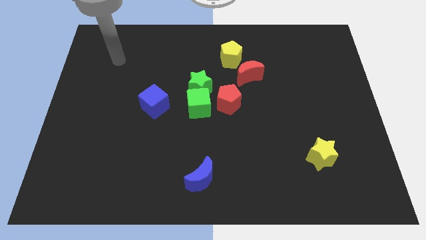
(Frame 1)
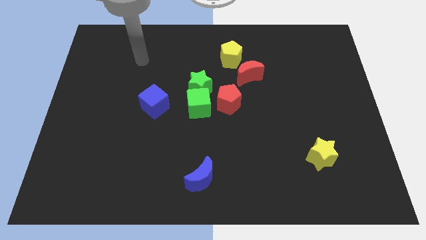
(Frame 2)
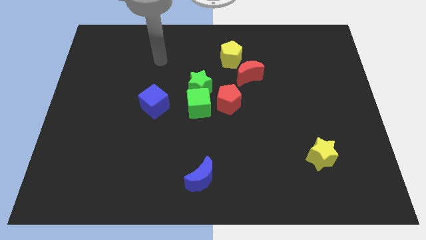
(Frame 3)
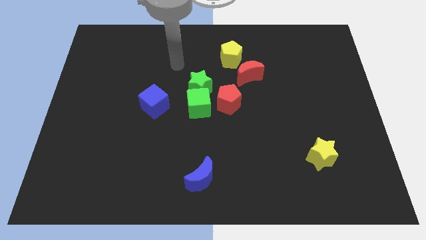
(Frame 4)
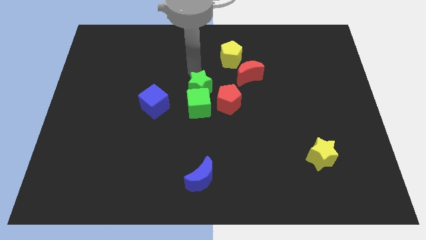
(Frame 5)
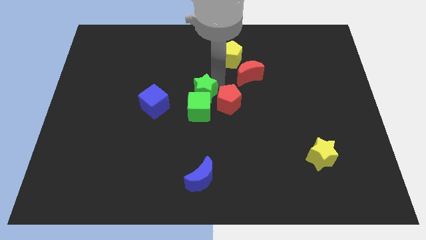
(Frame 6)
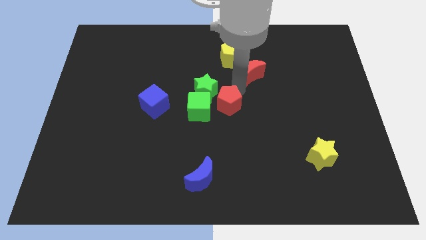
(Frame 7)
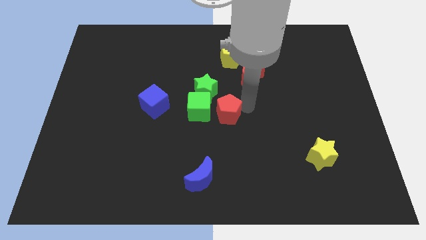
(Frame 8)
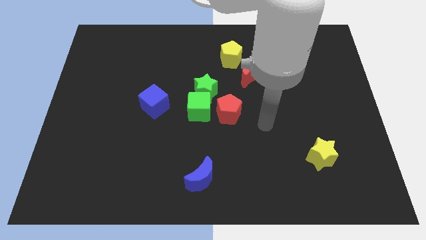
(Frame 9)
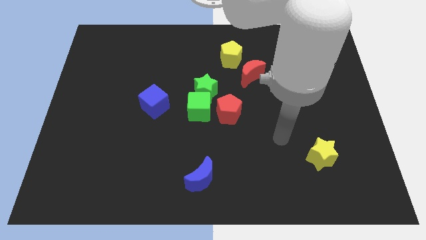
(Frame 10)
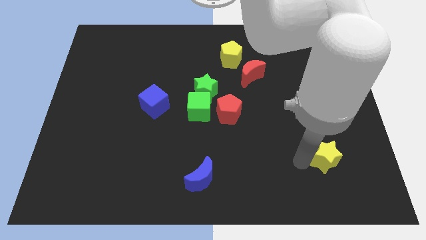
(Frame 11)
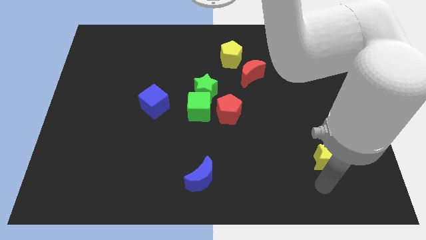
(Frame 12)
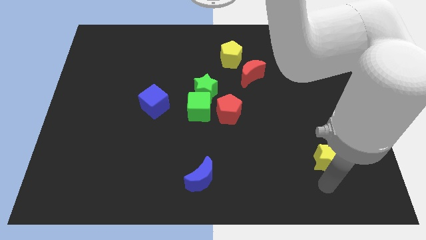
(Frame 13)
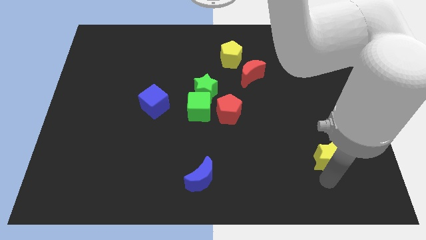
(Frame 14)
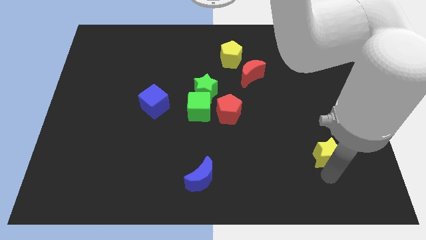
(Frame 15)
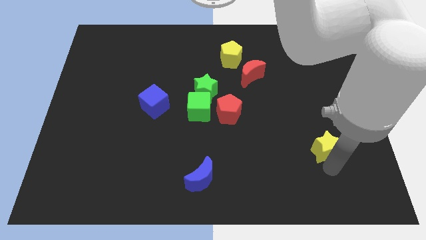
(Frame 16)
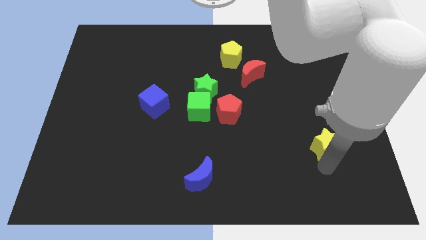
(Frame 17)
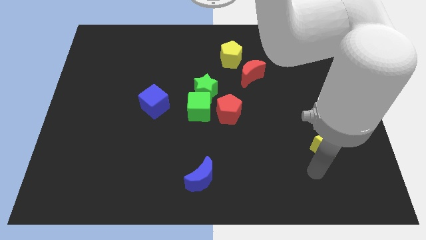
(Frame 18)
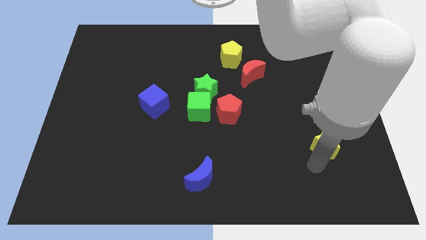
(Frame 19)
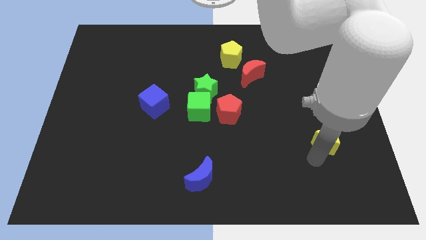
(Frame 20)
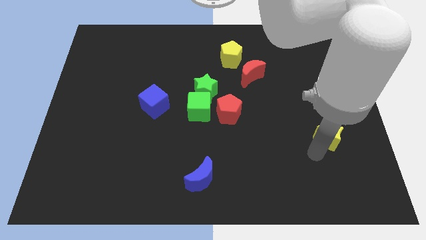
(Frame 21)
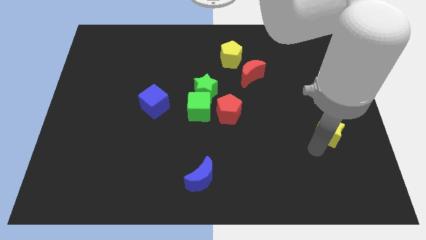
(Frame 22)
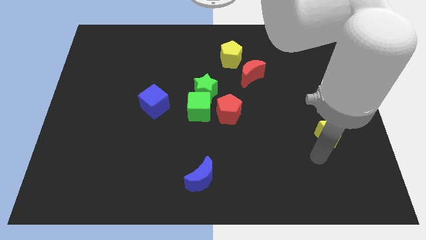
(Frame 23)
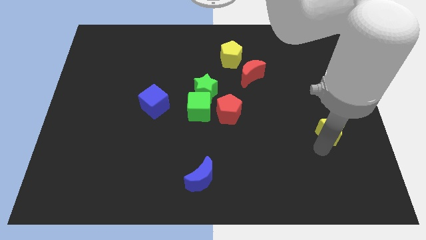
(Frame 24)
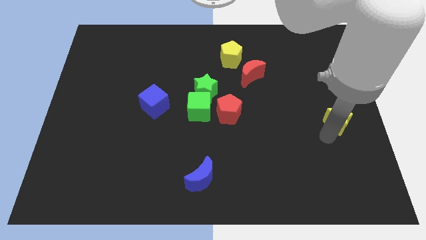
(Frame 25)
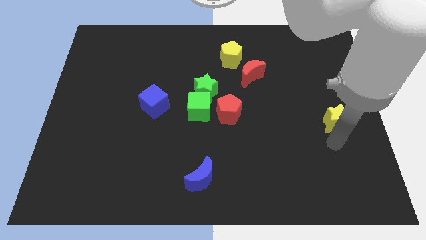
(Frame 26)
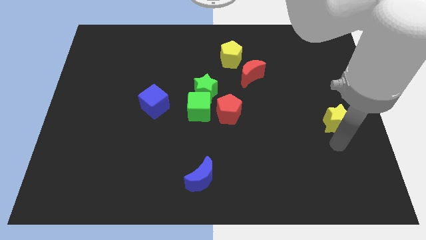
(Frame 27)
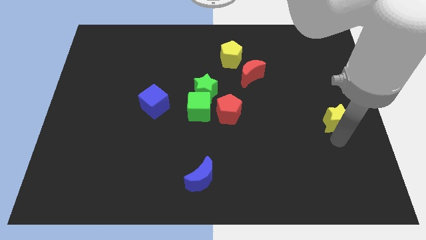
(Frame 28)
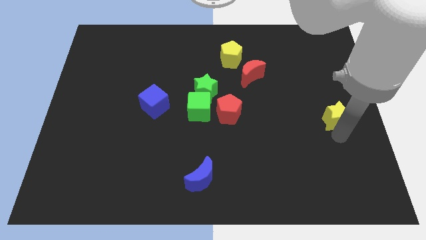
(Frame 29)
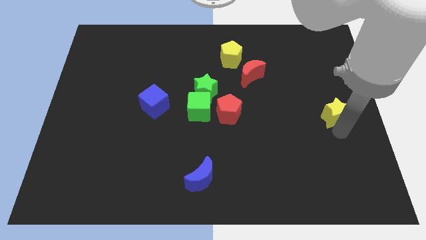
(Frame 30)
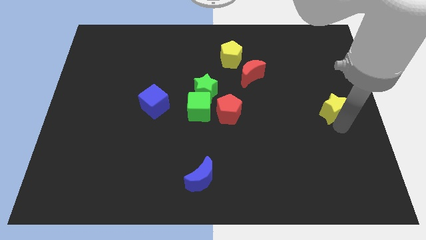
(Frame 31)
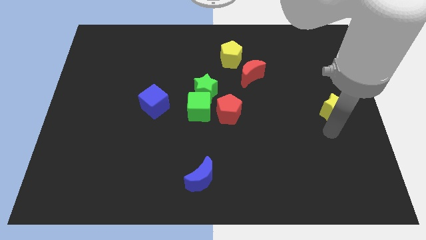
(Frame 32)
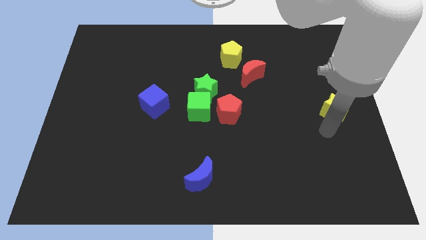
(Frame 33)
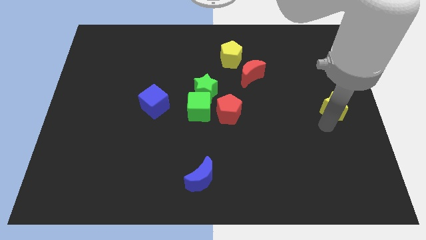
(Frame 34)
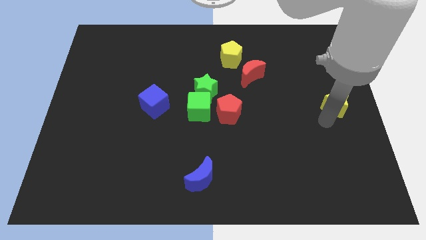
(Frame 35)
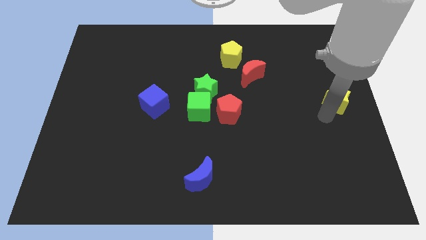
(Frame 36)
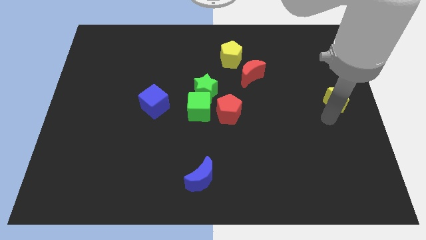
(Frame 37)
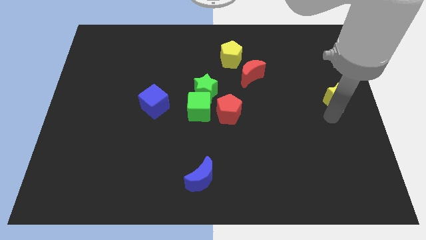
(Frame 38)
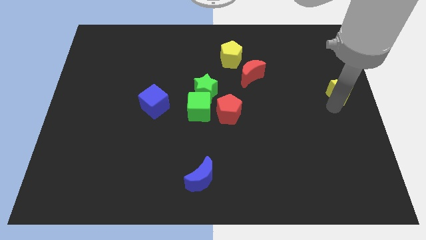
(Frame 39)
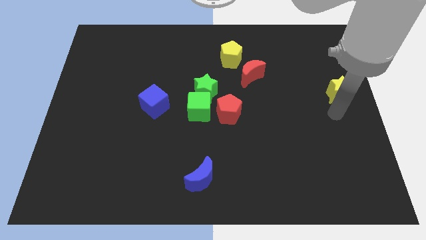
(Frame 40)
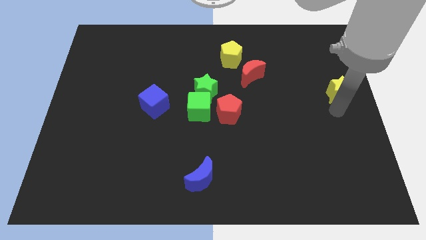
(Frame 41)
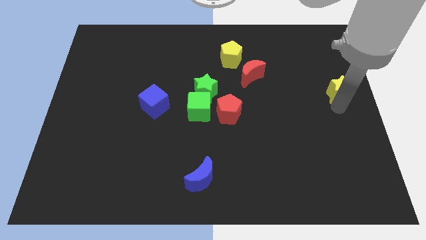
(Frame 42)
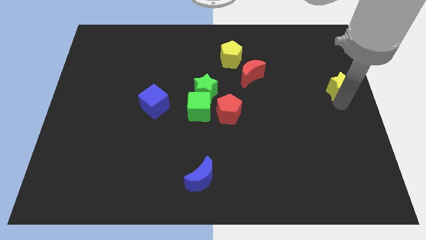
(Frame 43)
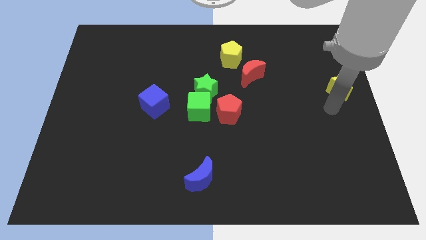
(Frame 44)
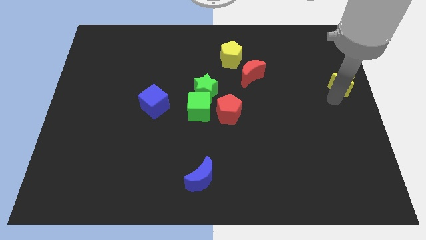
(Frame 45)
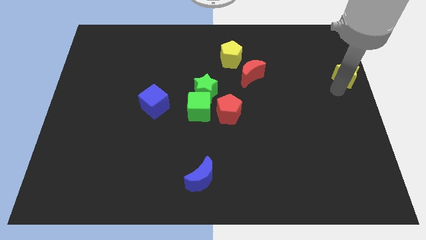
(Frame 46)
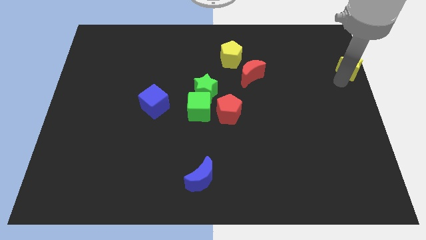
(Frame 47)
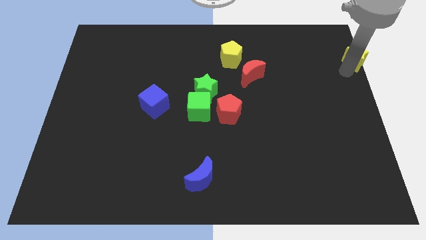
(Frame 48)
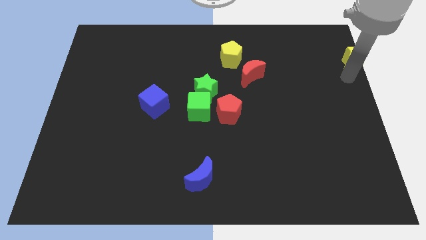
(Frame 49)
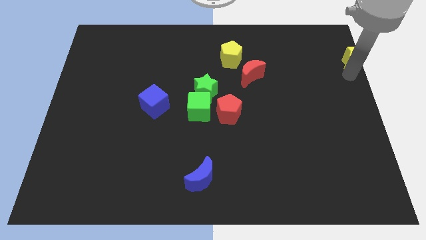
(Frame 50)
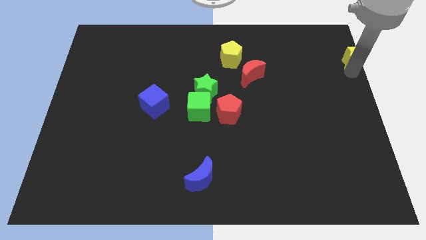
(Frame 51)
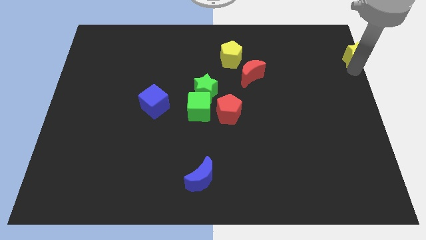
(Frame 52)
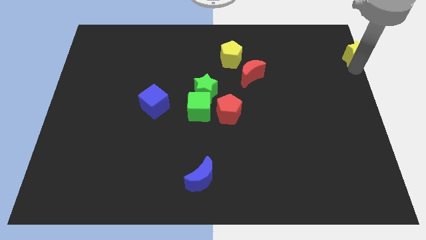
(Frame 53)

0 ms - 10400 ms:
put the yellow star to the top right corner
